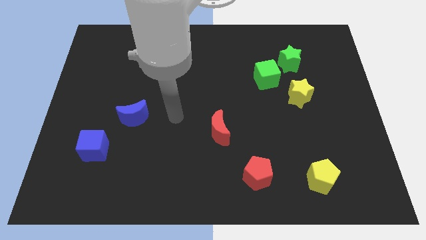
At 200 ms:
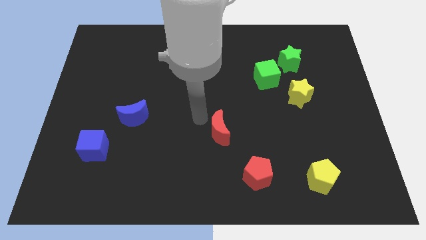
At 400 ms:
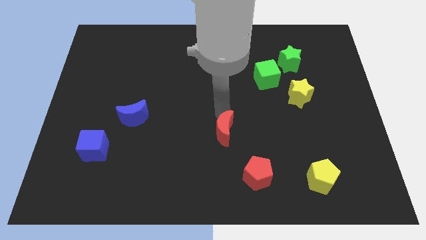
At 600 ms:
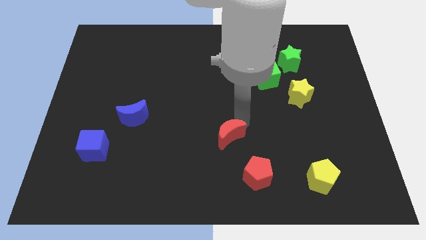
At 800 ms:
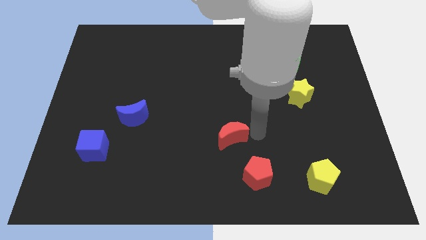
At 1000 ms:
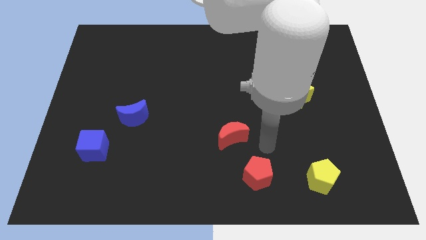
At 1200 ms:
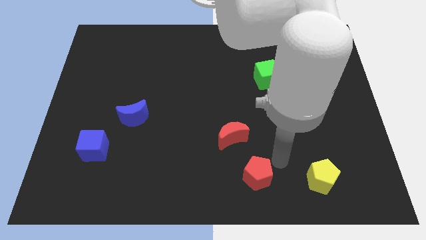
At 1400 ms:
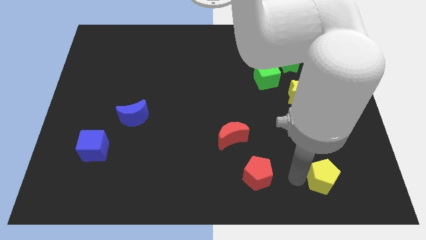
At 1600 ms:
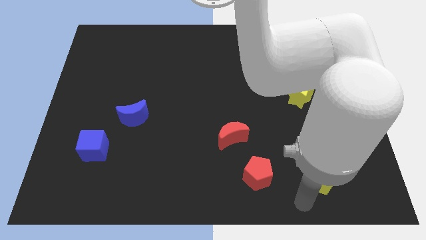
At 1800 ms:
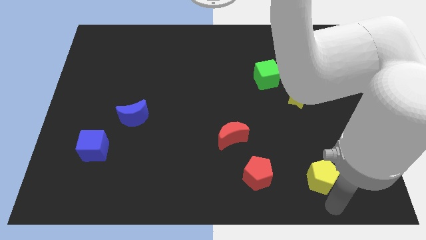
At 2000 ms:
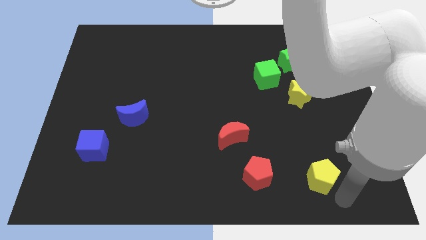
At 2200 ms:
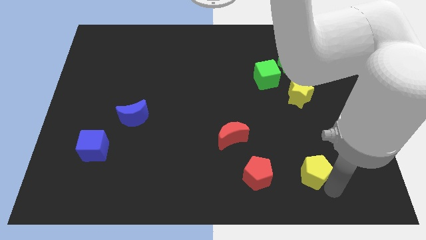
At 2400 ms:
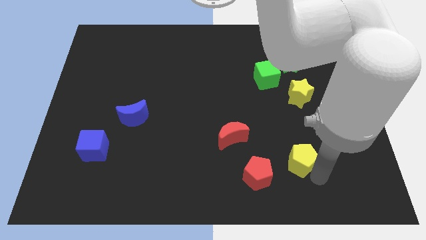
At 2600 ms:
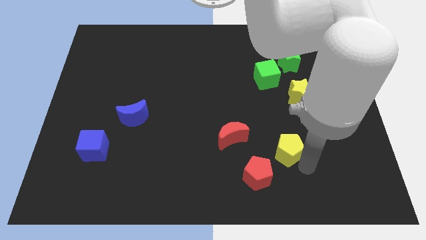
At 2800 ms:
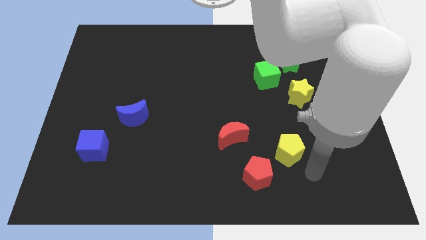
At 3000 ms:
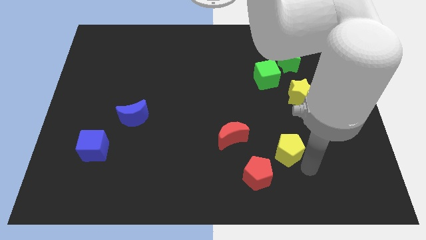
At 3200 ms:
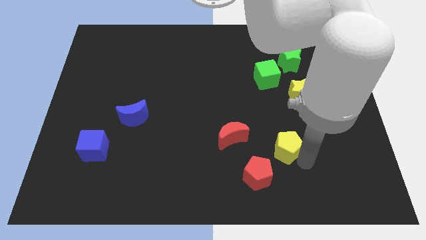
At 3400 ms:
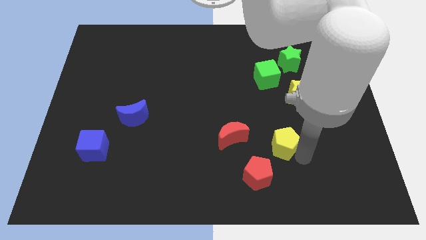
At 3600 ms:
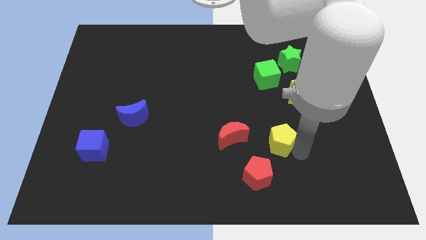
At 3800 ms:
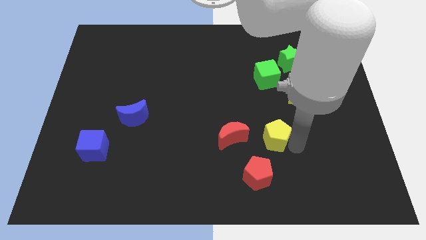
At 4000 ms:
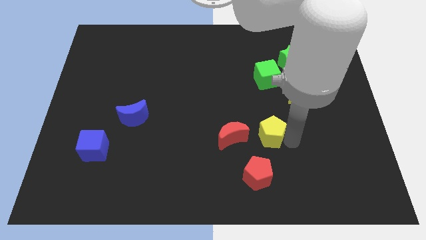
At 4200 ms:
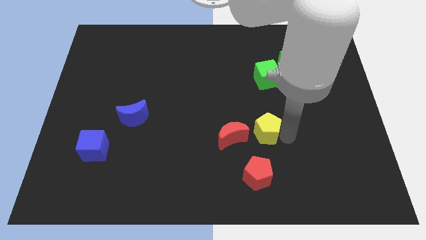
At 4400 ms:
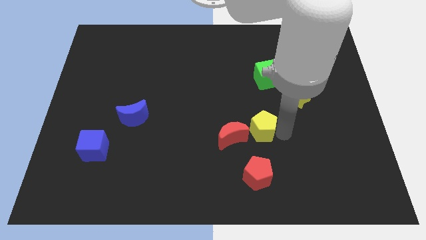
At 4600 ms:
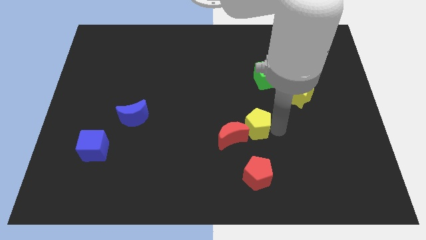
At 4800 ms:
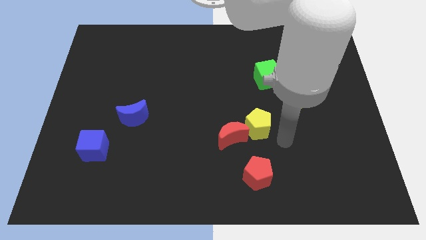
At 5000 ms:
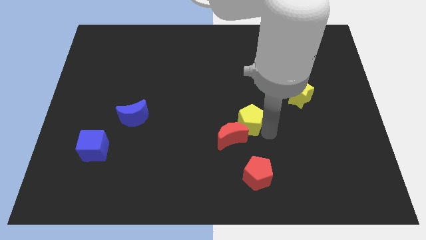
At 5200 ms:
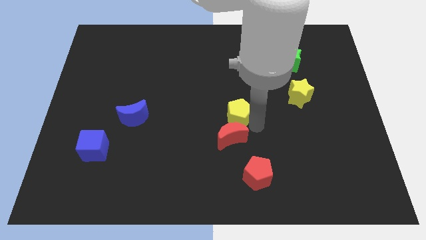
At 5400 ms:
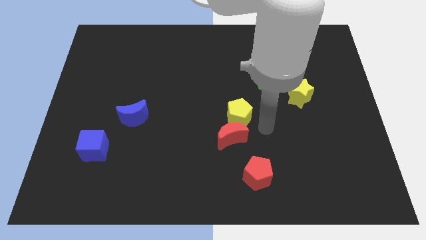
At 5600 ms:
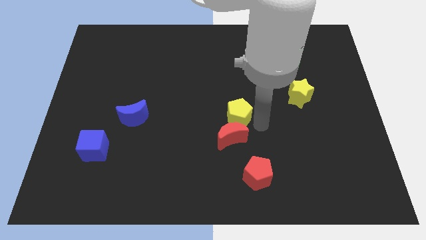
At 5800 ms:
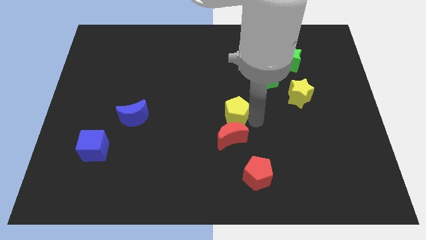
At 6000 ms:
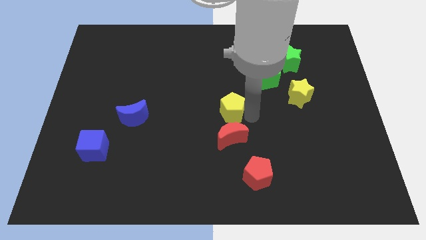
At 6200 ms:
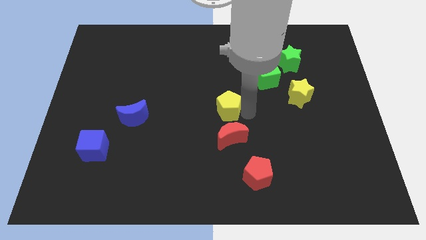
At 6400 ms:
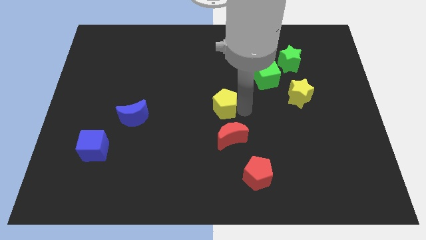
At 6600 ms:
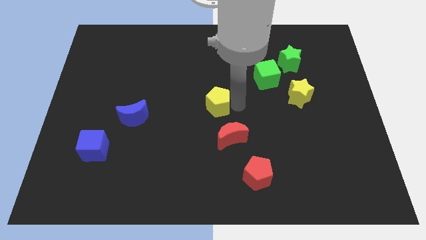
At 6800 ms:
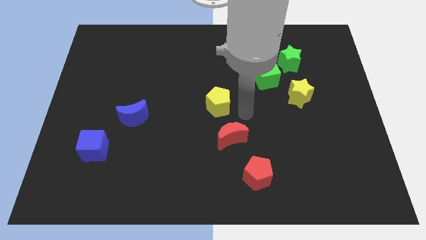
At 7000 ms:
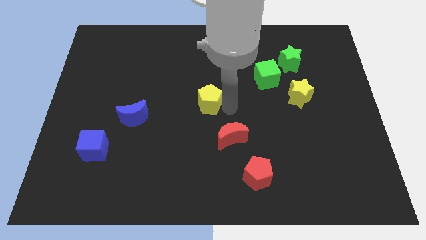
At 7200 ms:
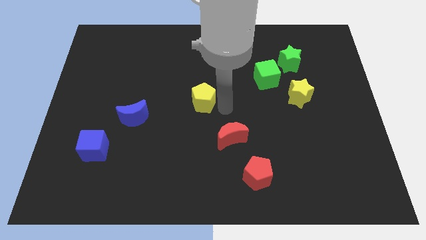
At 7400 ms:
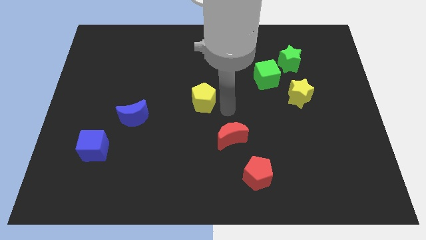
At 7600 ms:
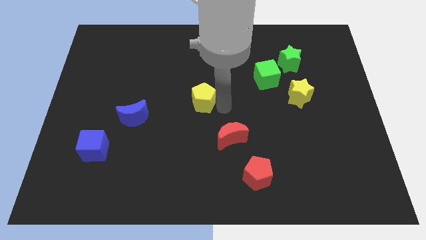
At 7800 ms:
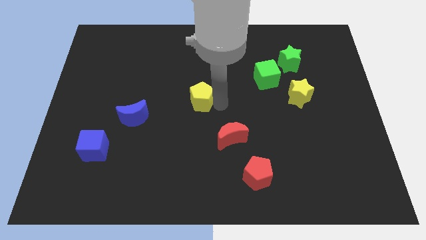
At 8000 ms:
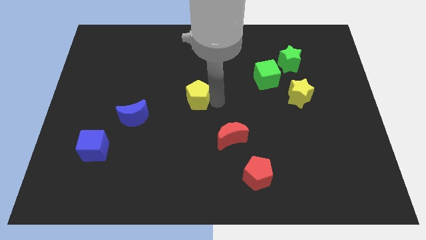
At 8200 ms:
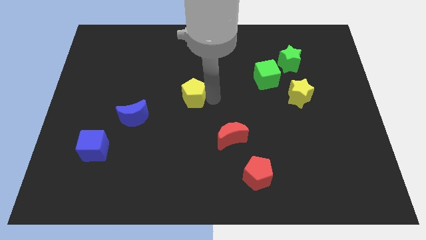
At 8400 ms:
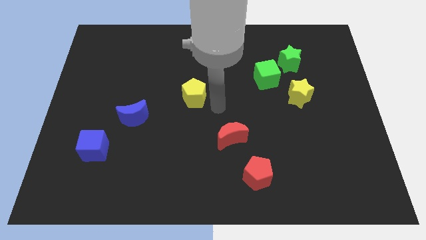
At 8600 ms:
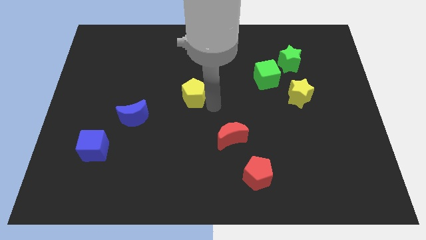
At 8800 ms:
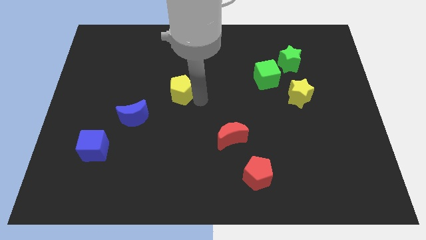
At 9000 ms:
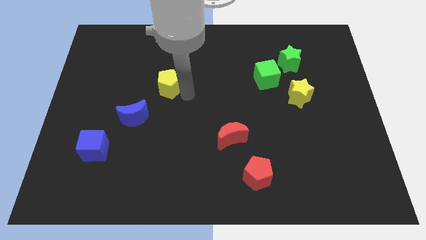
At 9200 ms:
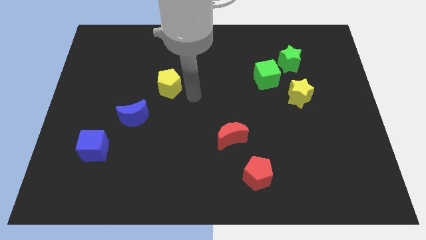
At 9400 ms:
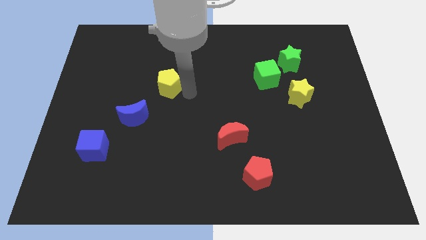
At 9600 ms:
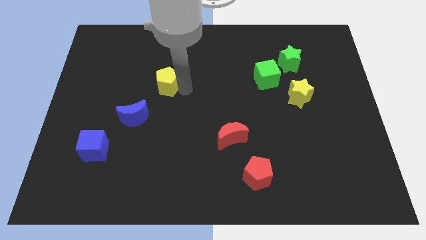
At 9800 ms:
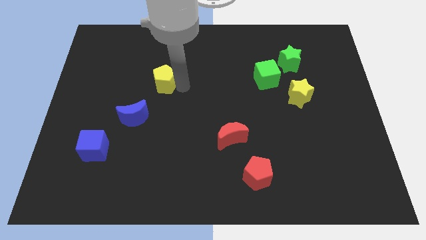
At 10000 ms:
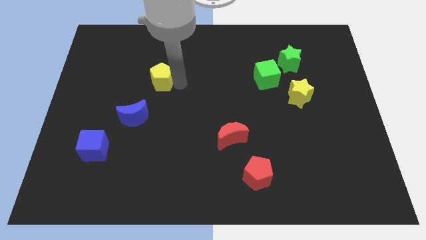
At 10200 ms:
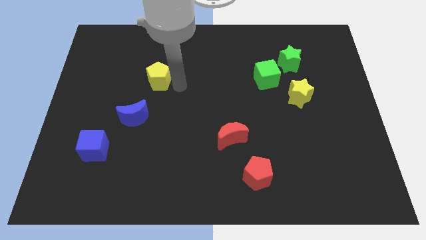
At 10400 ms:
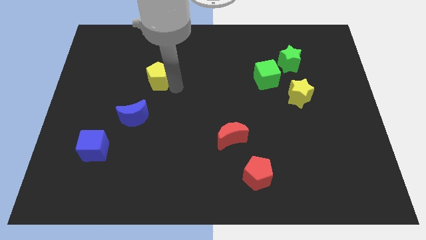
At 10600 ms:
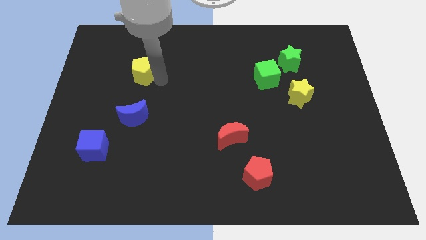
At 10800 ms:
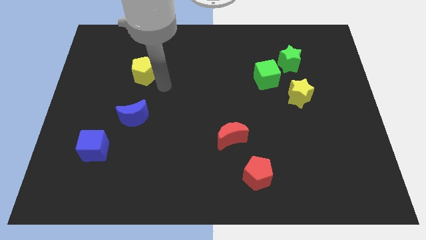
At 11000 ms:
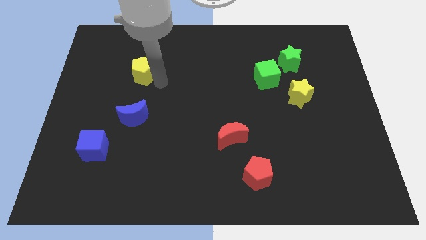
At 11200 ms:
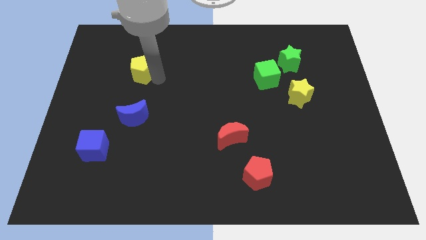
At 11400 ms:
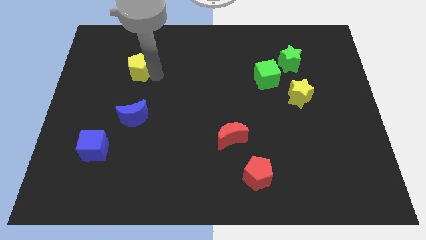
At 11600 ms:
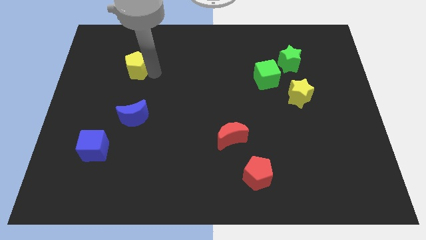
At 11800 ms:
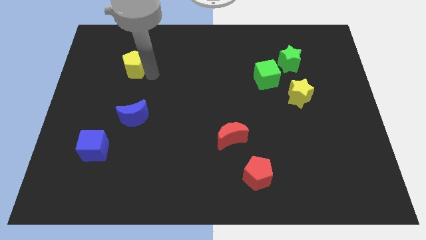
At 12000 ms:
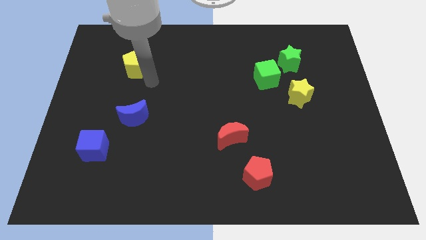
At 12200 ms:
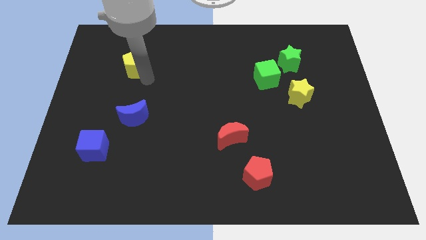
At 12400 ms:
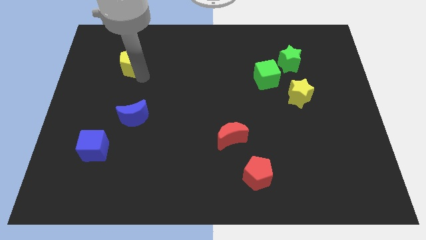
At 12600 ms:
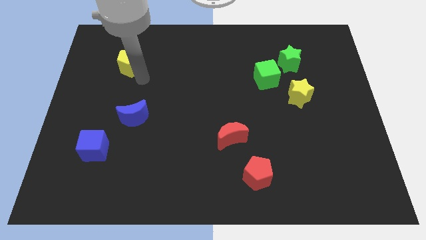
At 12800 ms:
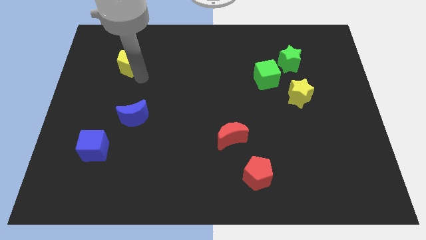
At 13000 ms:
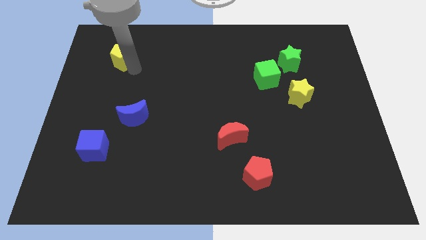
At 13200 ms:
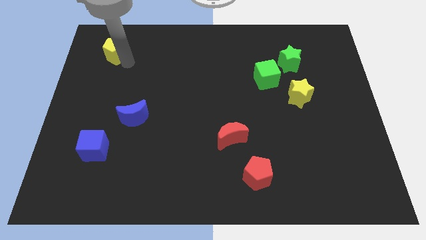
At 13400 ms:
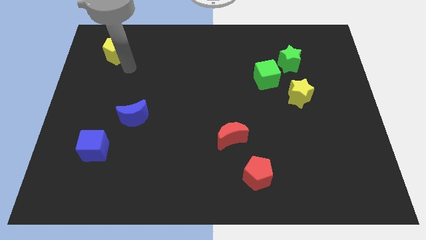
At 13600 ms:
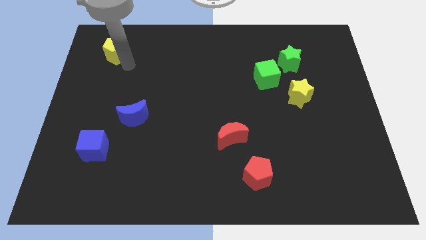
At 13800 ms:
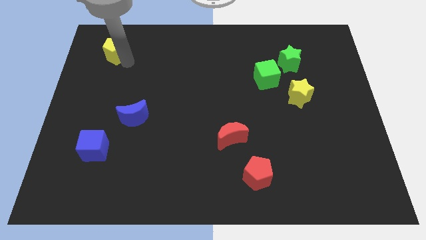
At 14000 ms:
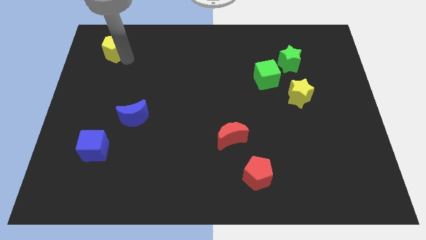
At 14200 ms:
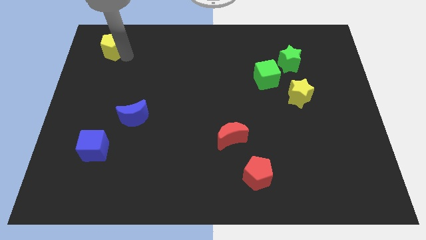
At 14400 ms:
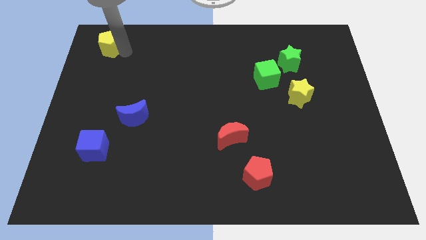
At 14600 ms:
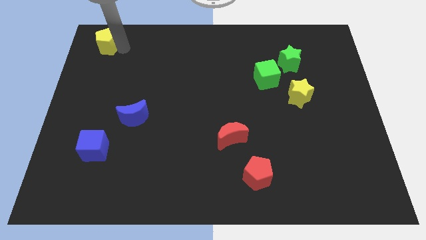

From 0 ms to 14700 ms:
slide the yellow pentagon to the top left corner
